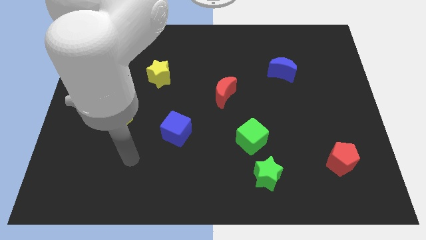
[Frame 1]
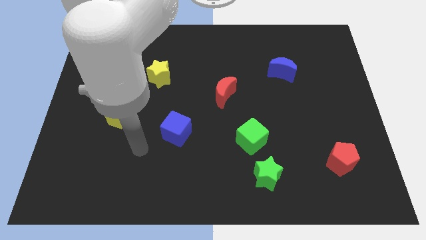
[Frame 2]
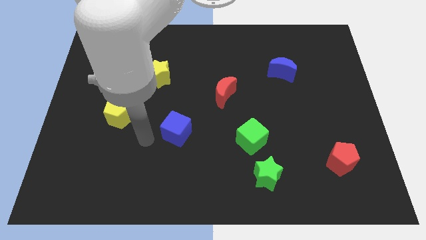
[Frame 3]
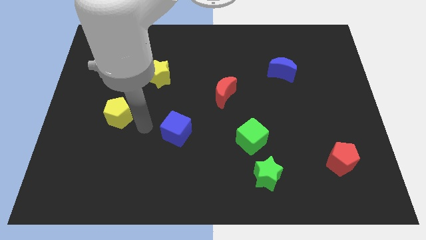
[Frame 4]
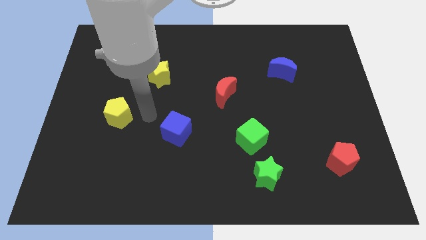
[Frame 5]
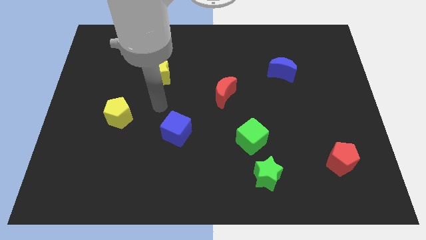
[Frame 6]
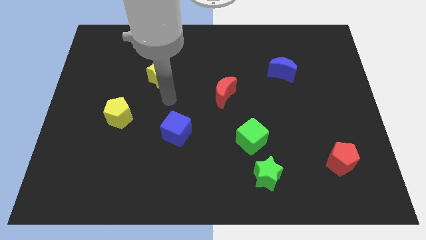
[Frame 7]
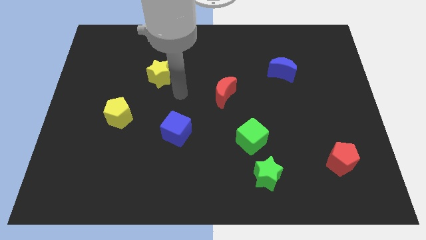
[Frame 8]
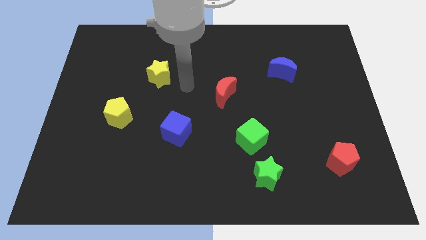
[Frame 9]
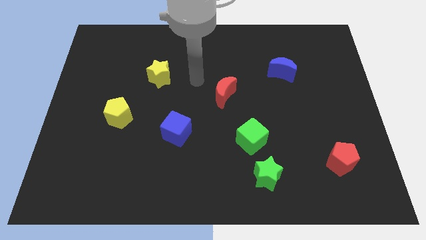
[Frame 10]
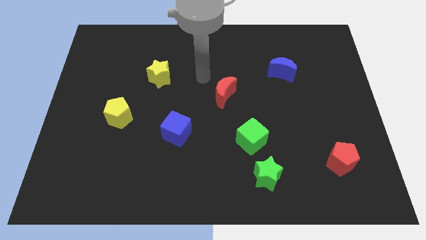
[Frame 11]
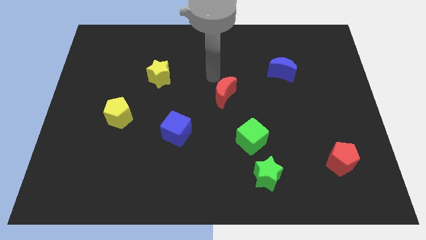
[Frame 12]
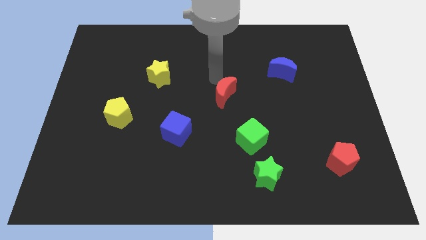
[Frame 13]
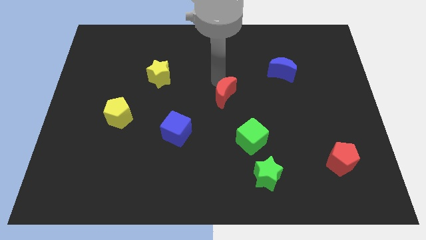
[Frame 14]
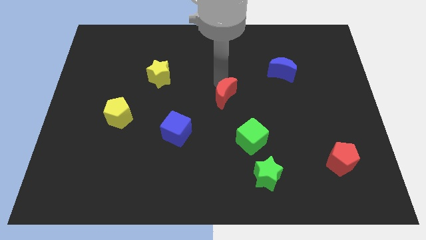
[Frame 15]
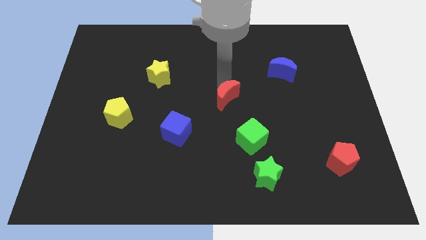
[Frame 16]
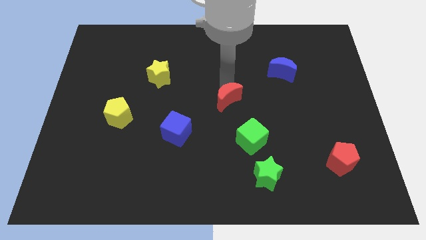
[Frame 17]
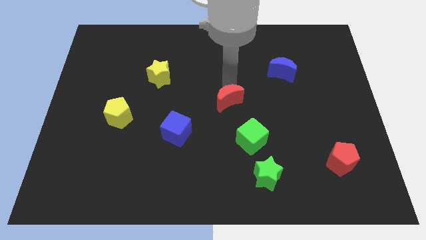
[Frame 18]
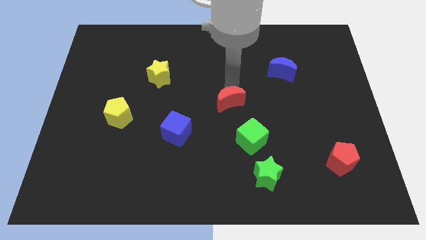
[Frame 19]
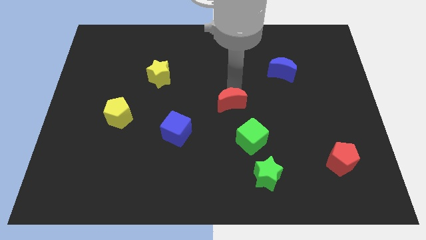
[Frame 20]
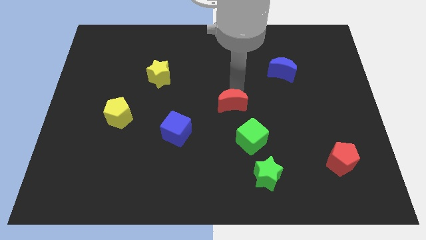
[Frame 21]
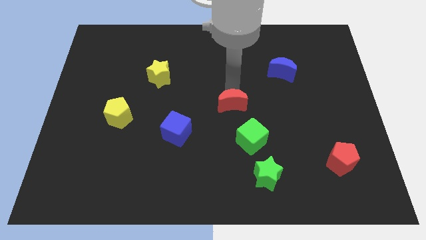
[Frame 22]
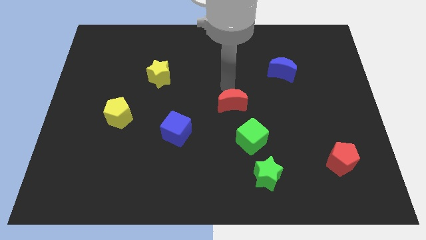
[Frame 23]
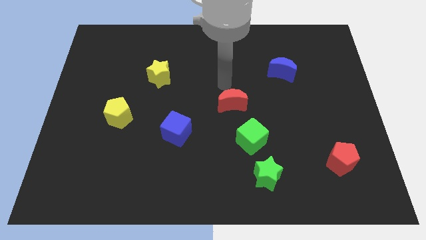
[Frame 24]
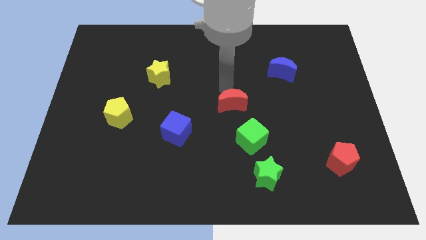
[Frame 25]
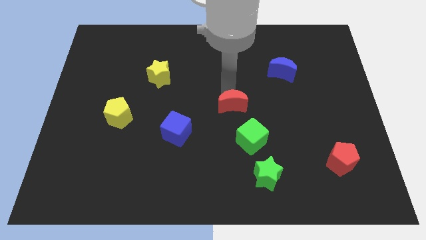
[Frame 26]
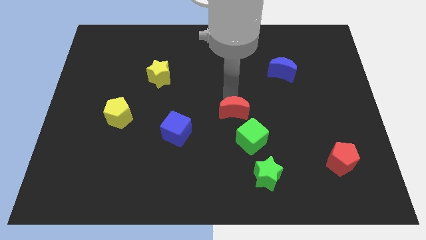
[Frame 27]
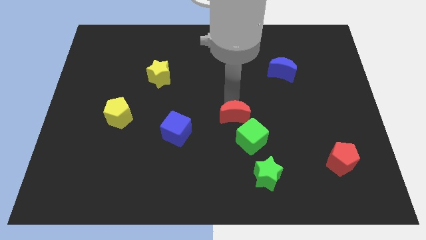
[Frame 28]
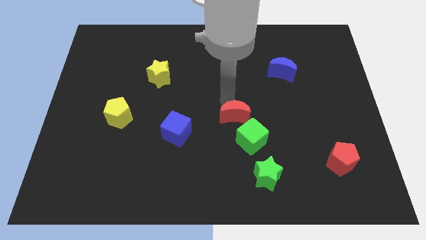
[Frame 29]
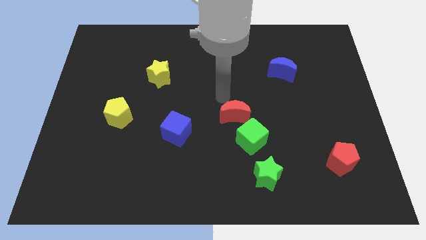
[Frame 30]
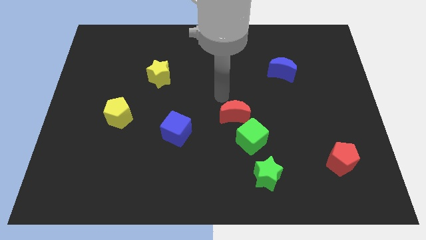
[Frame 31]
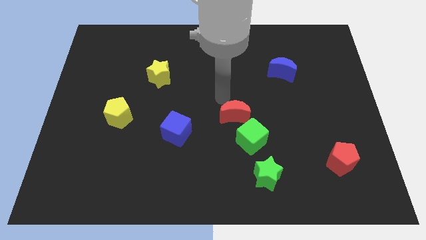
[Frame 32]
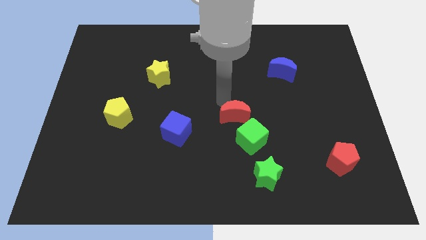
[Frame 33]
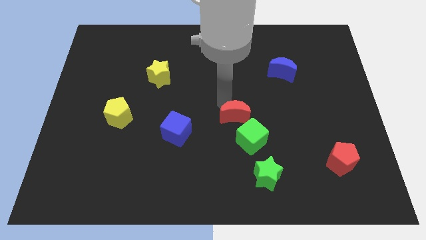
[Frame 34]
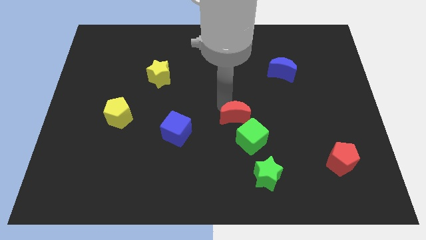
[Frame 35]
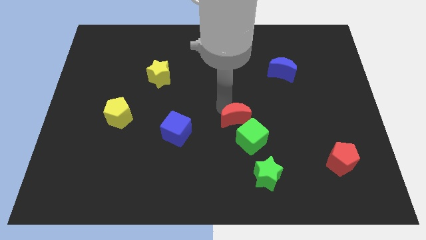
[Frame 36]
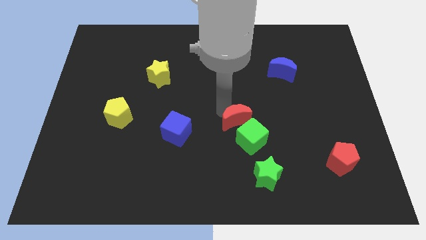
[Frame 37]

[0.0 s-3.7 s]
move the red moon to the green cube

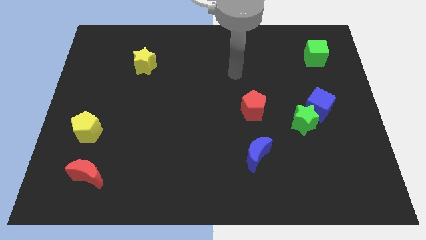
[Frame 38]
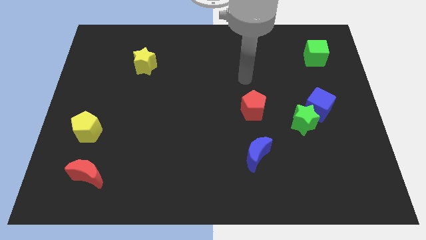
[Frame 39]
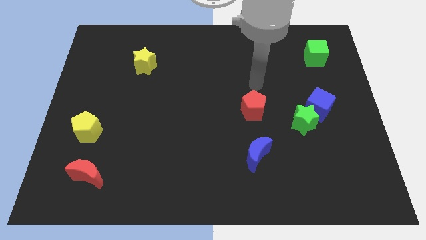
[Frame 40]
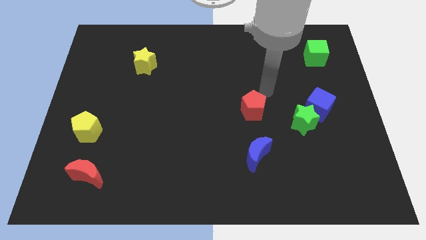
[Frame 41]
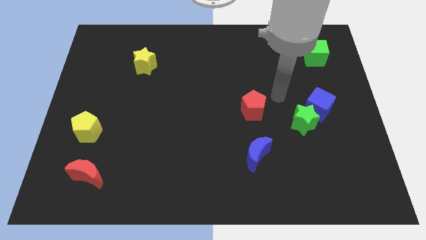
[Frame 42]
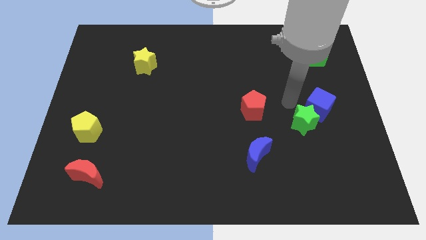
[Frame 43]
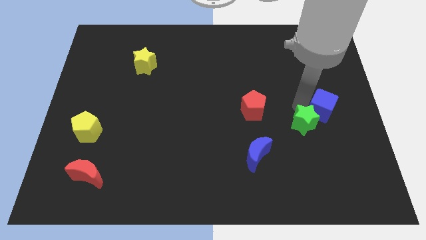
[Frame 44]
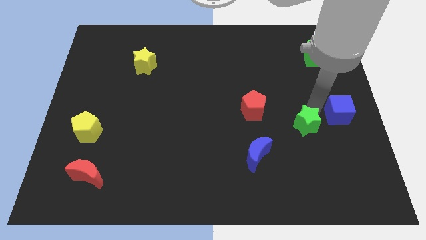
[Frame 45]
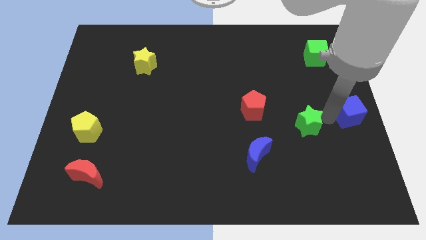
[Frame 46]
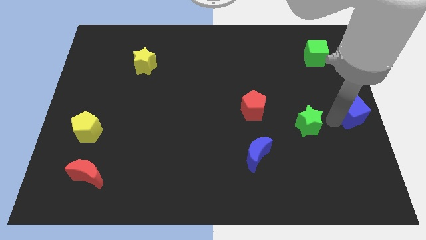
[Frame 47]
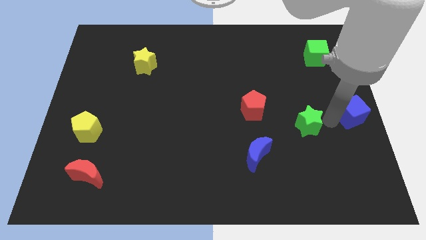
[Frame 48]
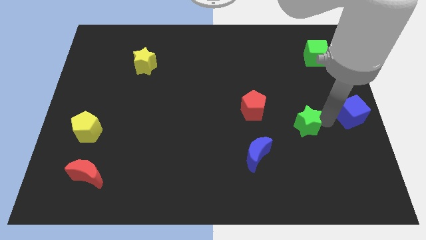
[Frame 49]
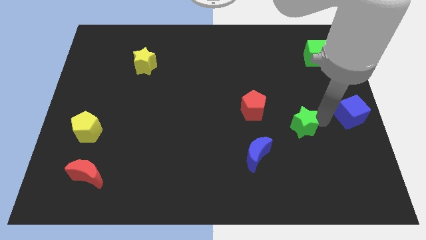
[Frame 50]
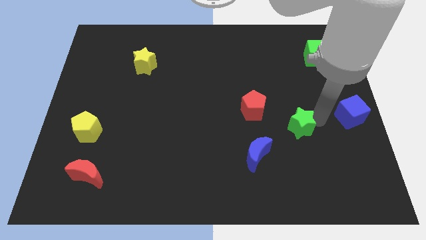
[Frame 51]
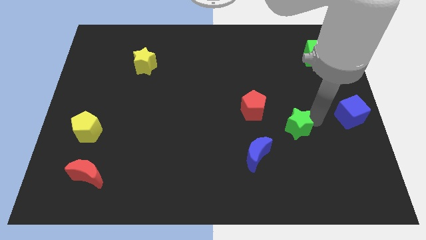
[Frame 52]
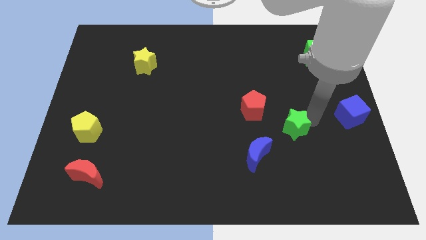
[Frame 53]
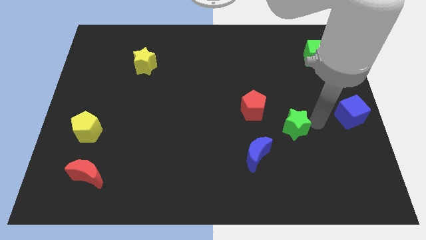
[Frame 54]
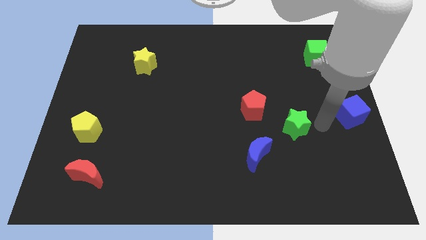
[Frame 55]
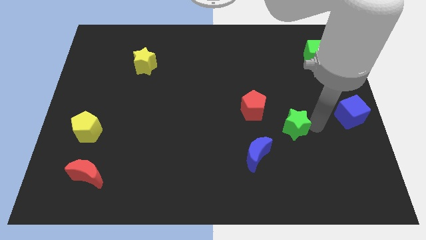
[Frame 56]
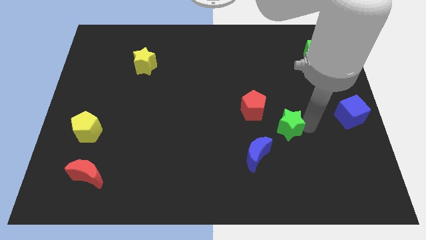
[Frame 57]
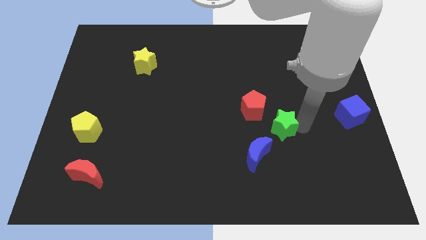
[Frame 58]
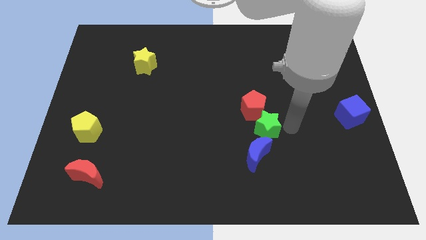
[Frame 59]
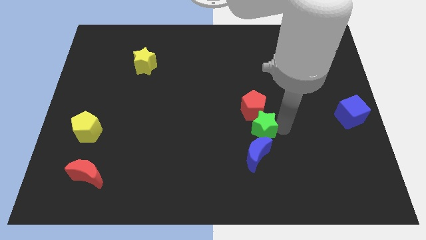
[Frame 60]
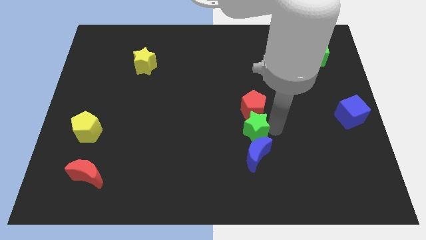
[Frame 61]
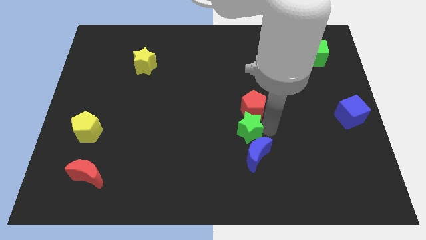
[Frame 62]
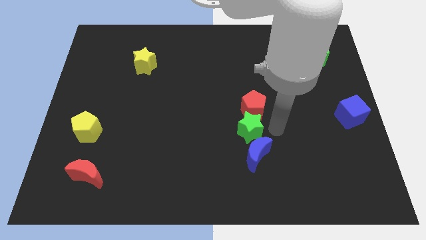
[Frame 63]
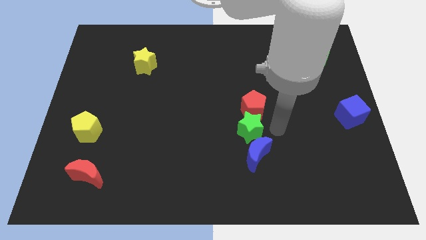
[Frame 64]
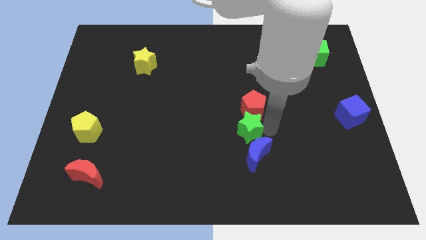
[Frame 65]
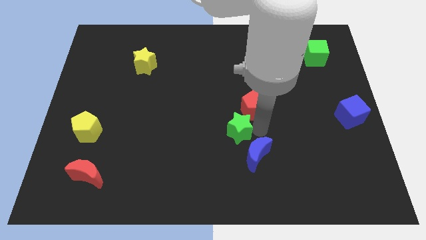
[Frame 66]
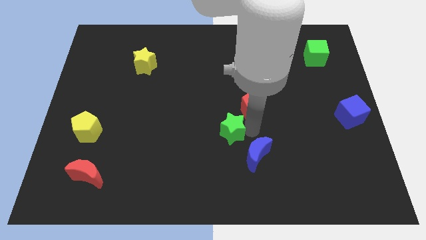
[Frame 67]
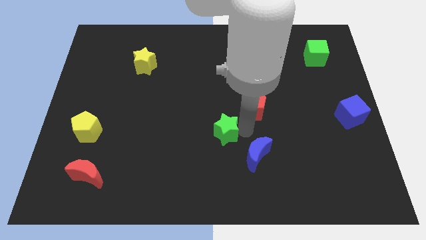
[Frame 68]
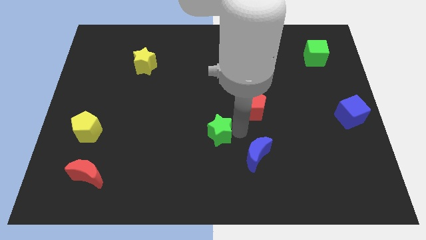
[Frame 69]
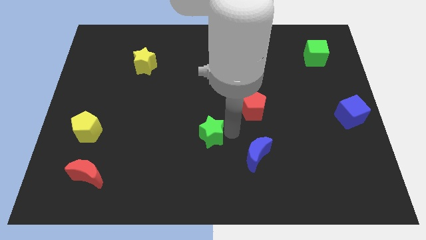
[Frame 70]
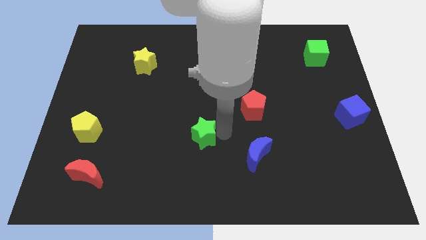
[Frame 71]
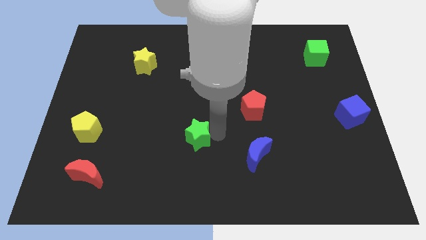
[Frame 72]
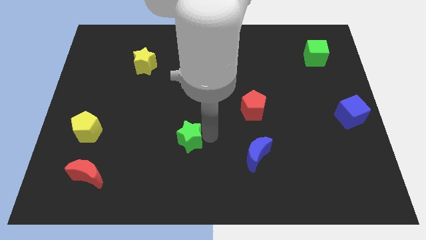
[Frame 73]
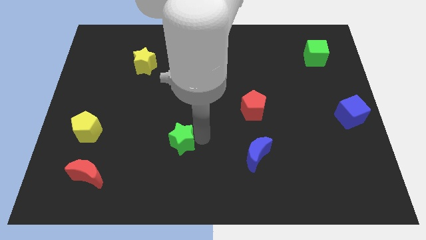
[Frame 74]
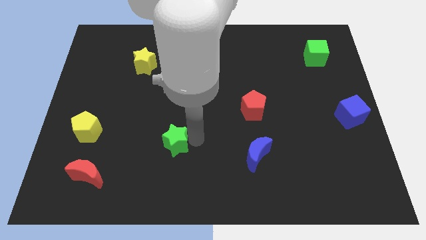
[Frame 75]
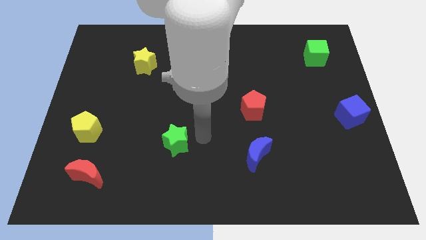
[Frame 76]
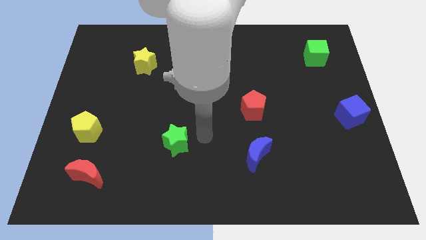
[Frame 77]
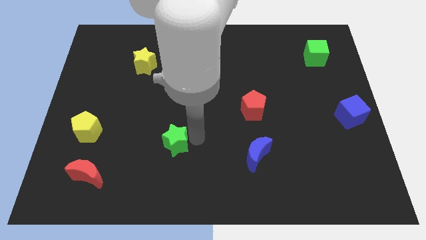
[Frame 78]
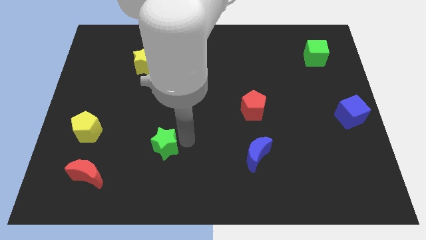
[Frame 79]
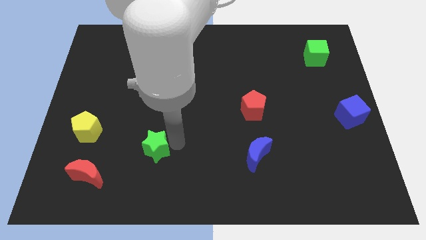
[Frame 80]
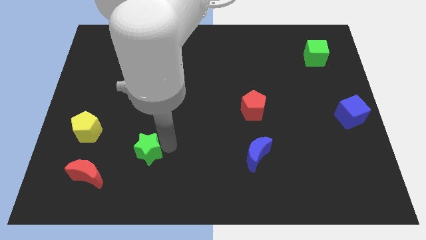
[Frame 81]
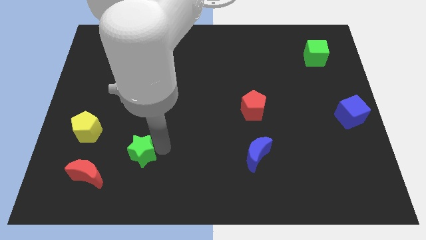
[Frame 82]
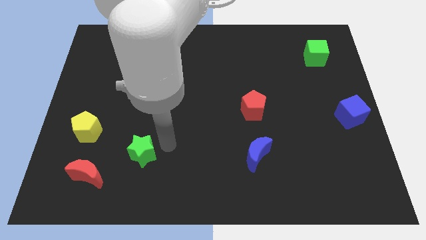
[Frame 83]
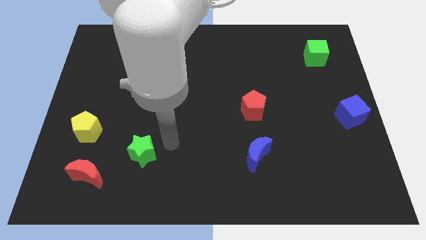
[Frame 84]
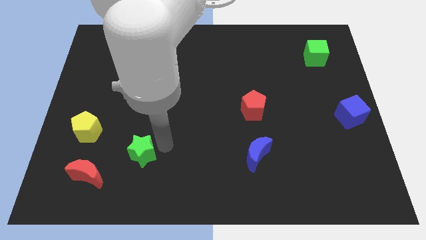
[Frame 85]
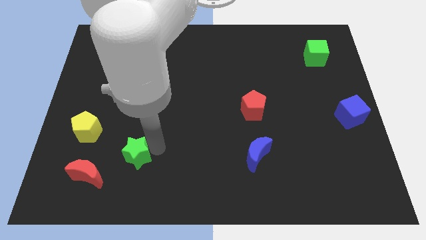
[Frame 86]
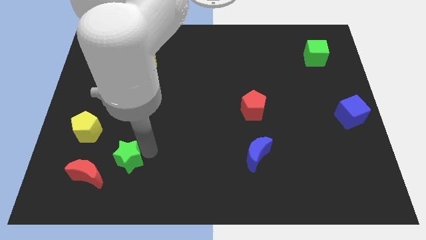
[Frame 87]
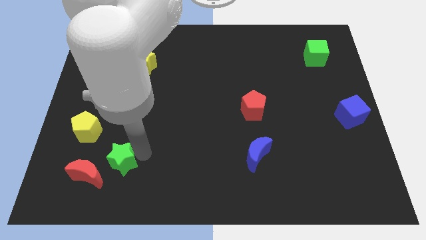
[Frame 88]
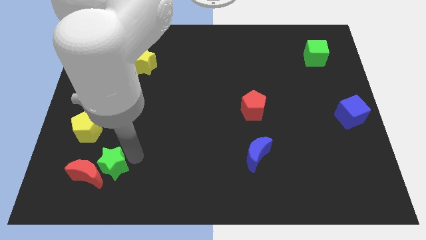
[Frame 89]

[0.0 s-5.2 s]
push the green star next to the red moon
